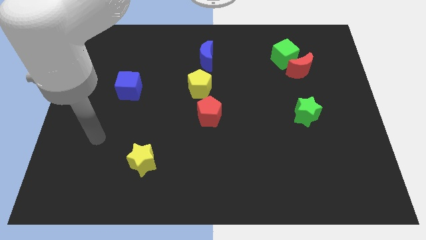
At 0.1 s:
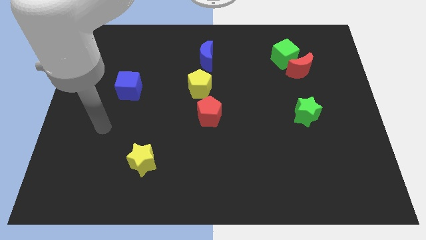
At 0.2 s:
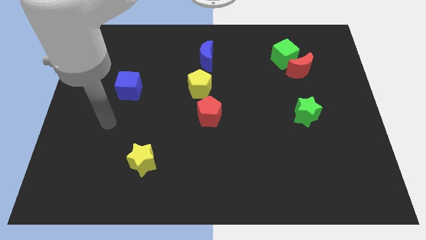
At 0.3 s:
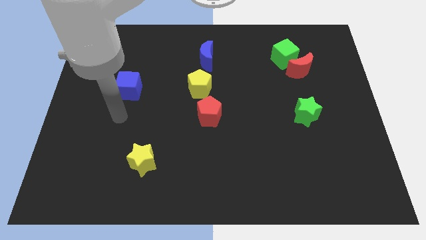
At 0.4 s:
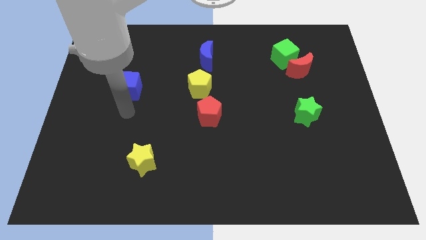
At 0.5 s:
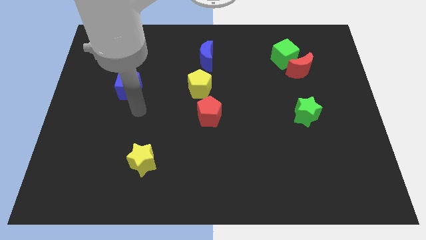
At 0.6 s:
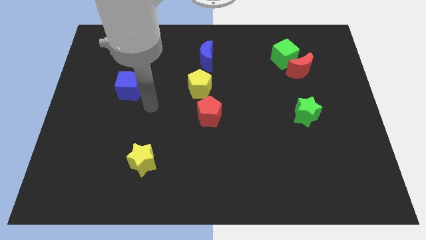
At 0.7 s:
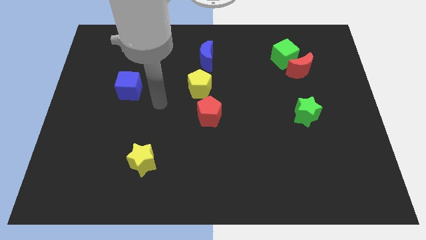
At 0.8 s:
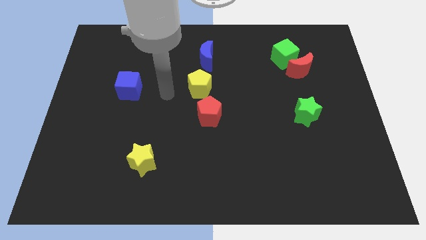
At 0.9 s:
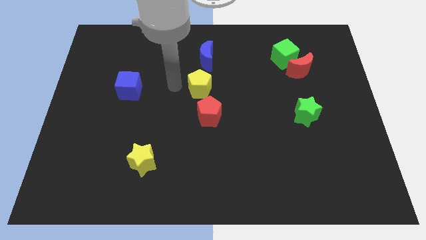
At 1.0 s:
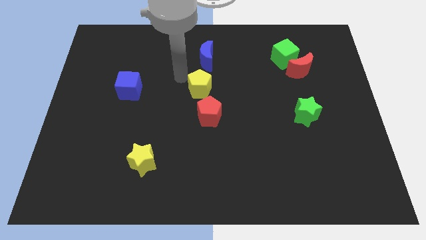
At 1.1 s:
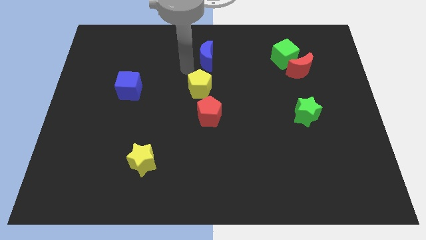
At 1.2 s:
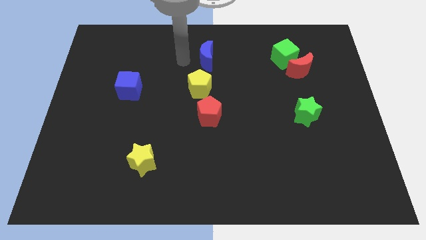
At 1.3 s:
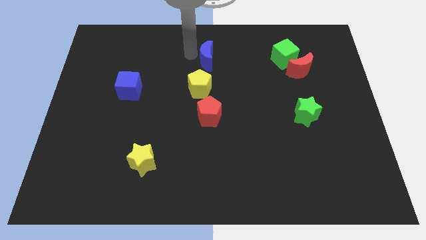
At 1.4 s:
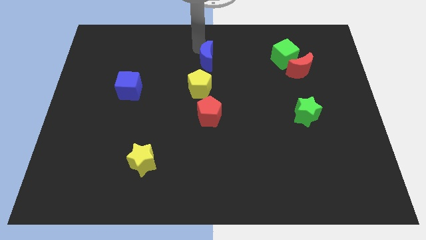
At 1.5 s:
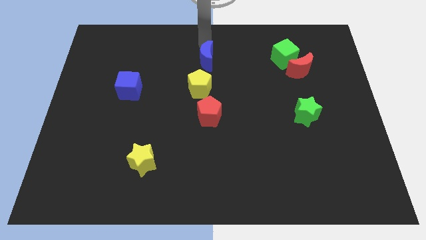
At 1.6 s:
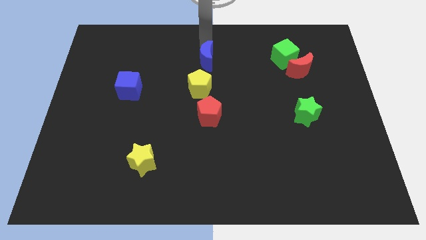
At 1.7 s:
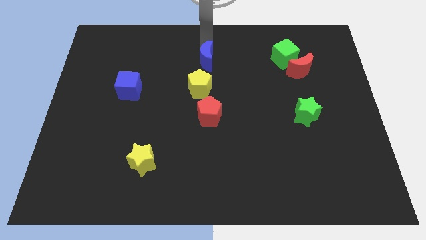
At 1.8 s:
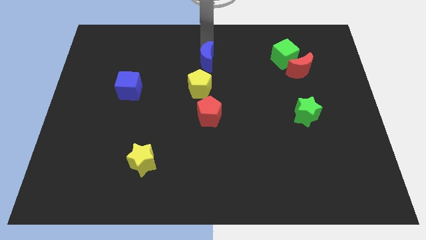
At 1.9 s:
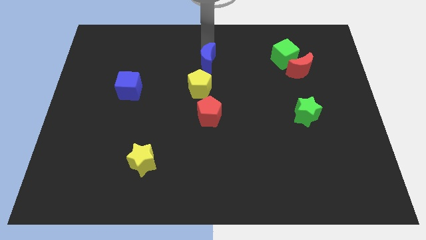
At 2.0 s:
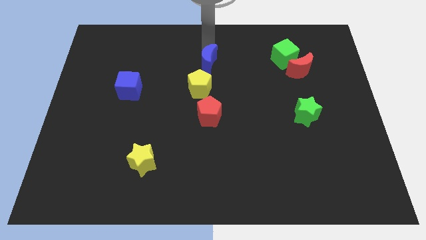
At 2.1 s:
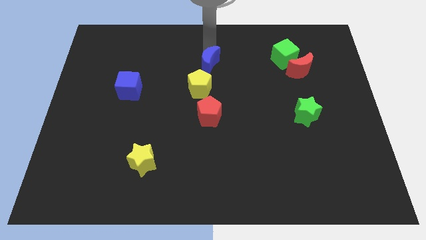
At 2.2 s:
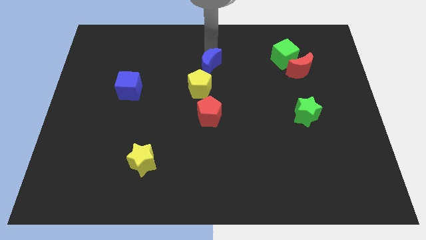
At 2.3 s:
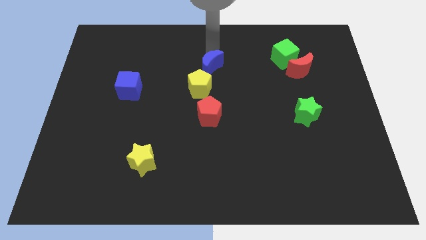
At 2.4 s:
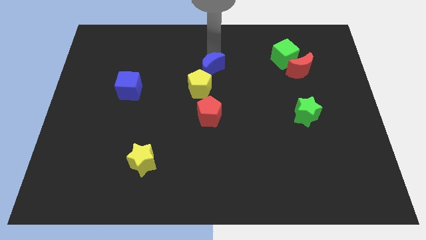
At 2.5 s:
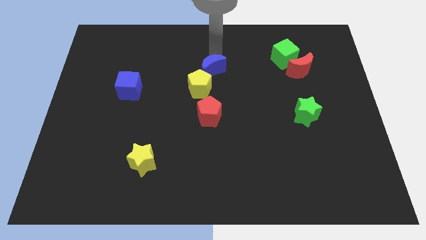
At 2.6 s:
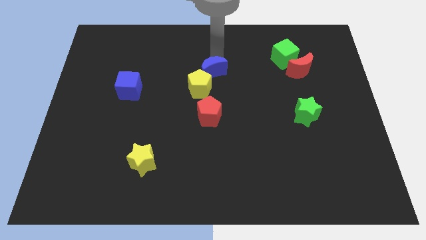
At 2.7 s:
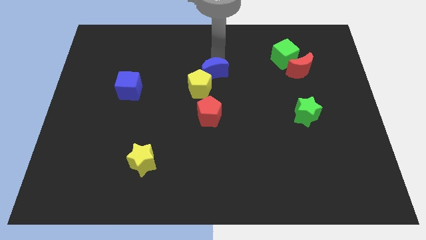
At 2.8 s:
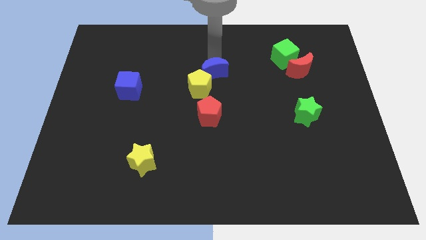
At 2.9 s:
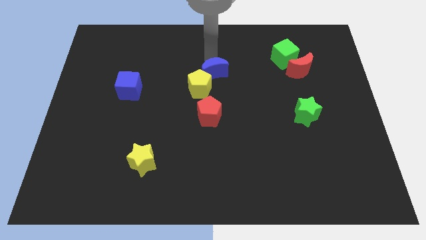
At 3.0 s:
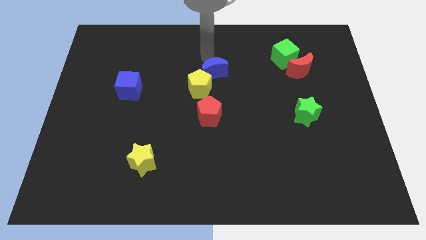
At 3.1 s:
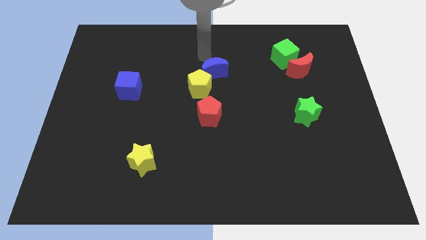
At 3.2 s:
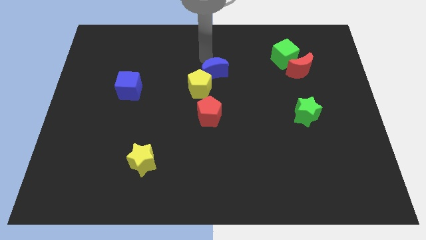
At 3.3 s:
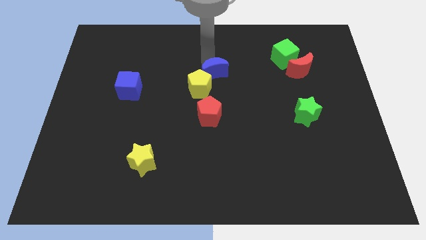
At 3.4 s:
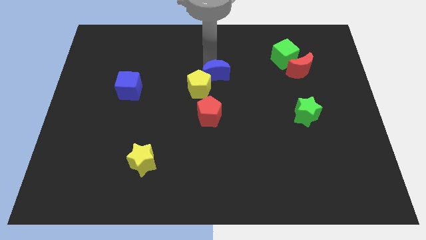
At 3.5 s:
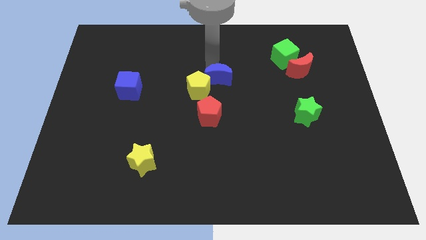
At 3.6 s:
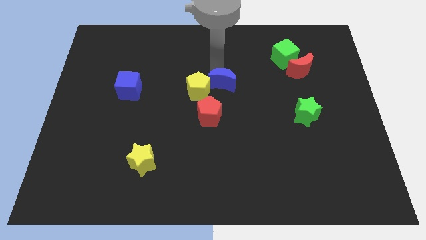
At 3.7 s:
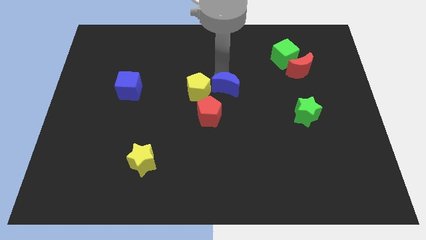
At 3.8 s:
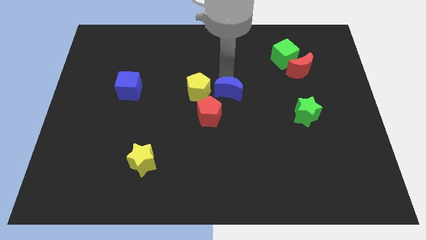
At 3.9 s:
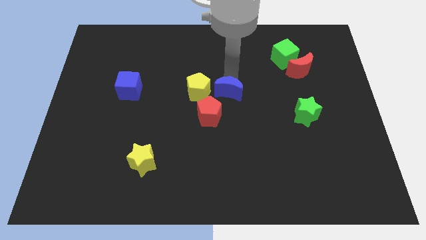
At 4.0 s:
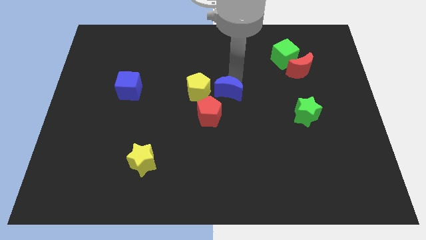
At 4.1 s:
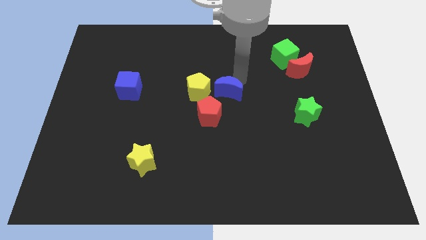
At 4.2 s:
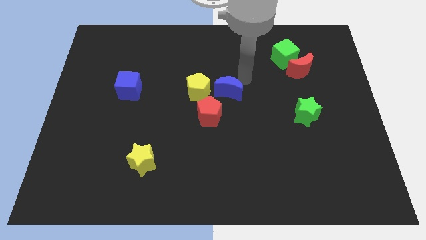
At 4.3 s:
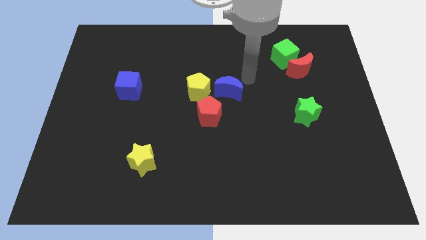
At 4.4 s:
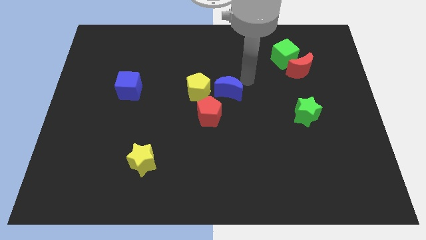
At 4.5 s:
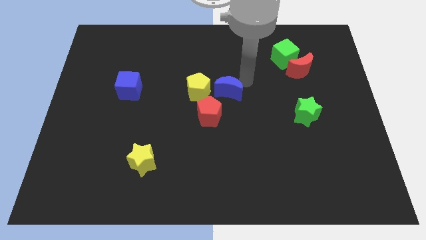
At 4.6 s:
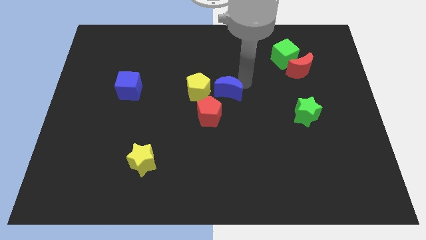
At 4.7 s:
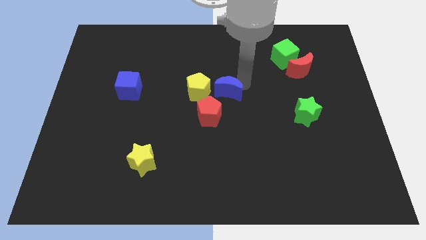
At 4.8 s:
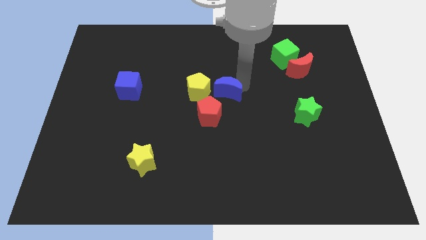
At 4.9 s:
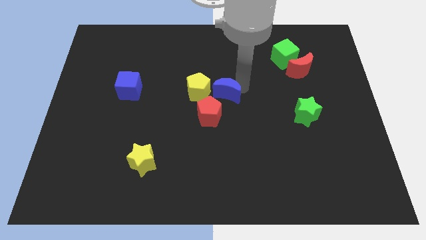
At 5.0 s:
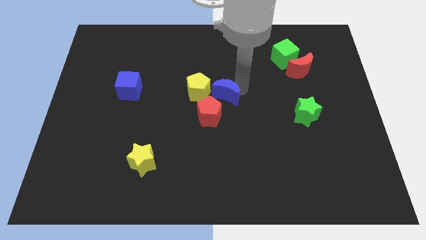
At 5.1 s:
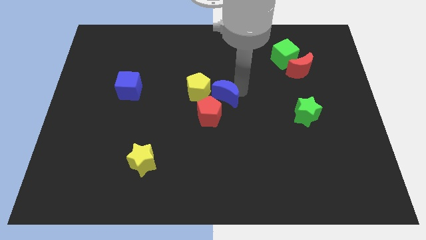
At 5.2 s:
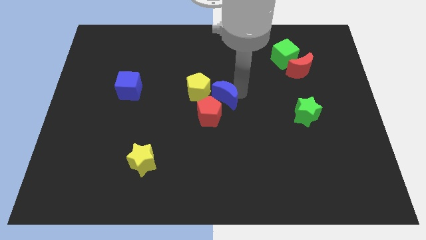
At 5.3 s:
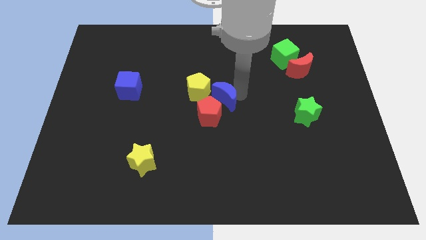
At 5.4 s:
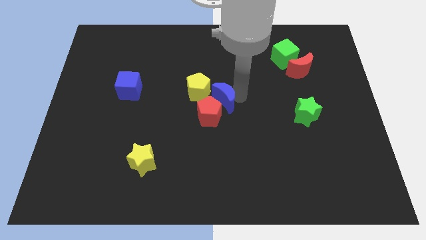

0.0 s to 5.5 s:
slide the blue moon towards the red pentagon

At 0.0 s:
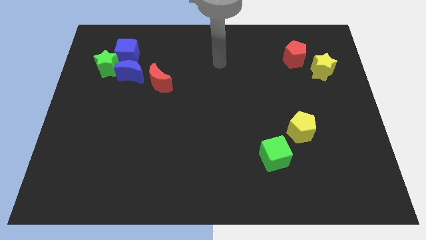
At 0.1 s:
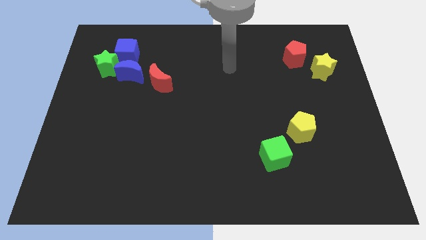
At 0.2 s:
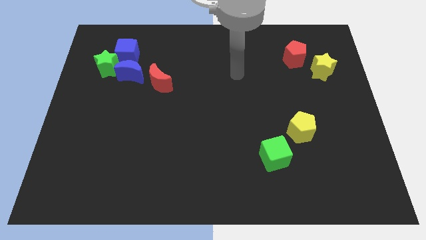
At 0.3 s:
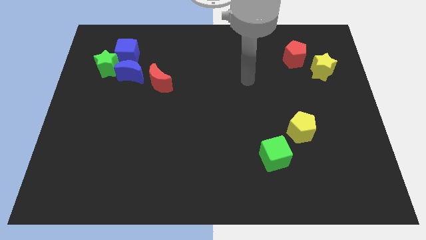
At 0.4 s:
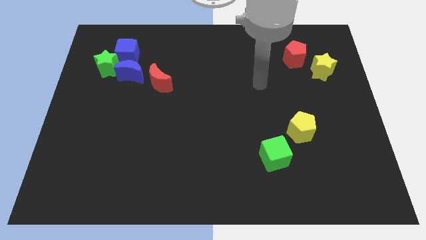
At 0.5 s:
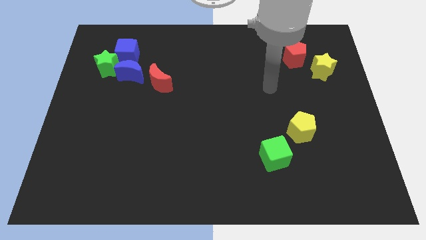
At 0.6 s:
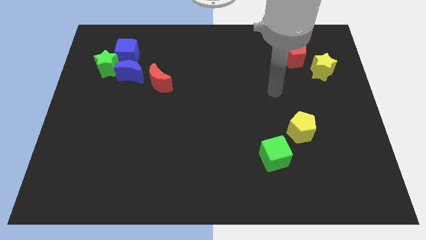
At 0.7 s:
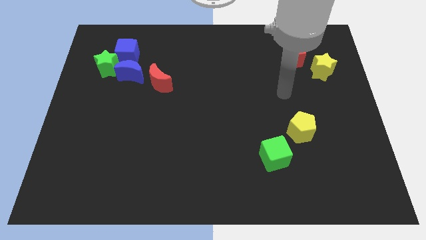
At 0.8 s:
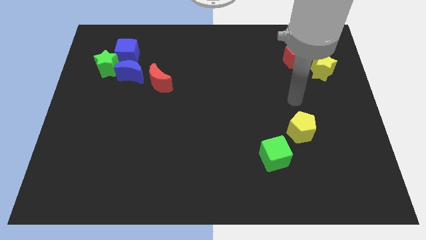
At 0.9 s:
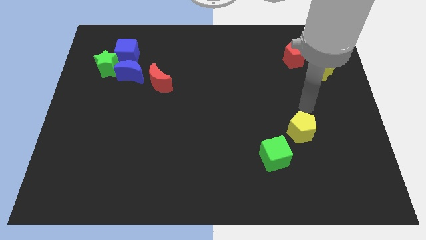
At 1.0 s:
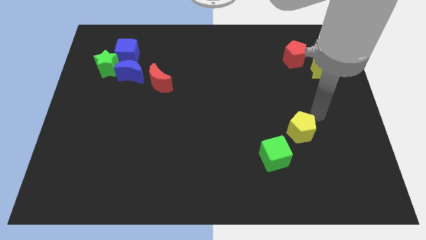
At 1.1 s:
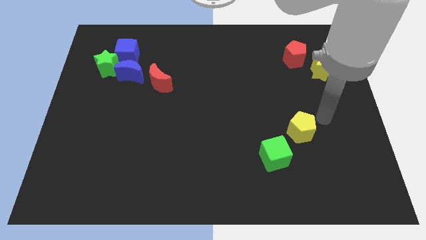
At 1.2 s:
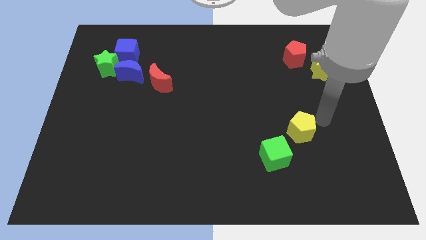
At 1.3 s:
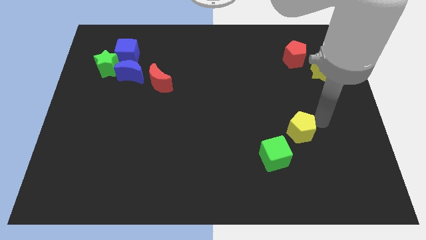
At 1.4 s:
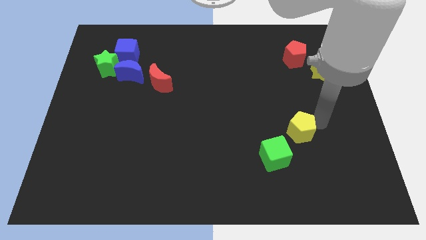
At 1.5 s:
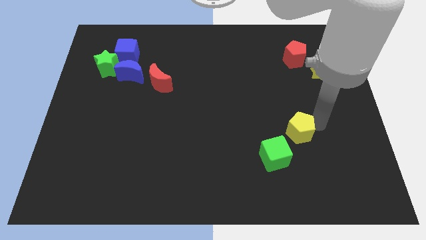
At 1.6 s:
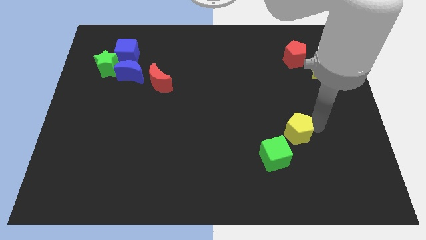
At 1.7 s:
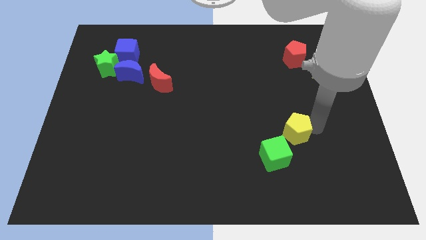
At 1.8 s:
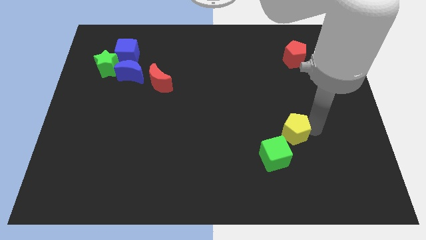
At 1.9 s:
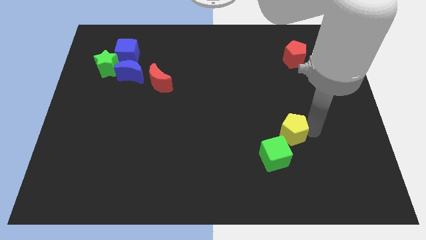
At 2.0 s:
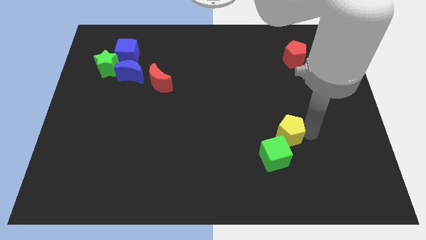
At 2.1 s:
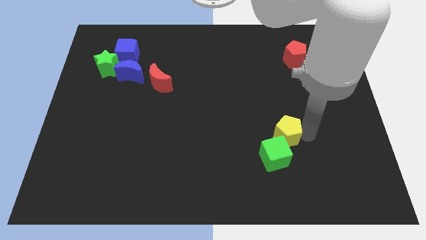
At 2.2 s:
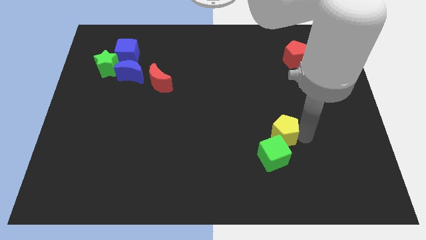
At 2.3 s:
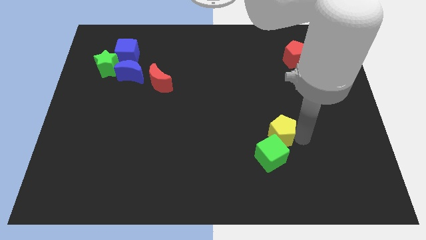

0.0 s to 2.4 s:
push the yellow pentagon to the green cube
